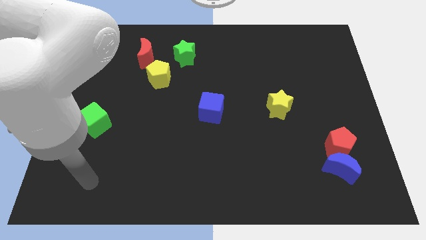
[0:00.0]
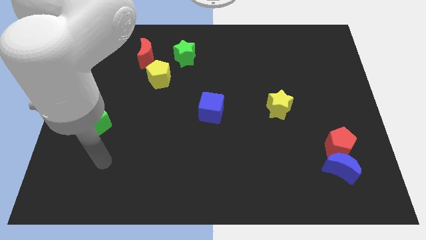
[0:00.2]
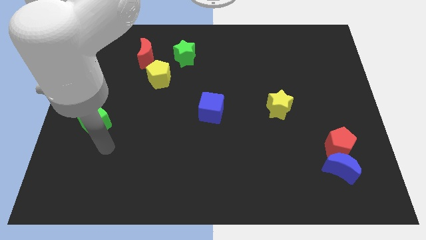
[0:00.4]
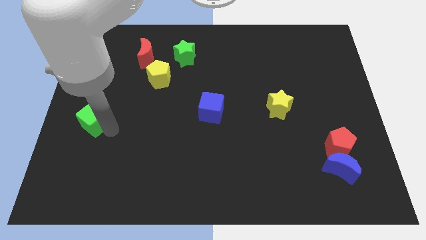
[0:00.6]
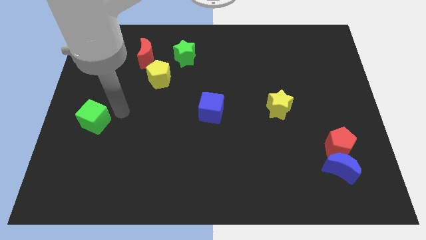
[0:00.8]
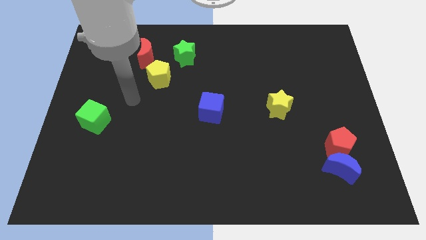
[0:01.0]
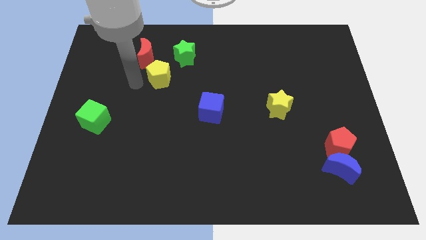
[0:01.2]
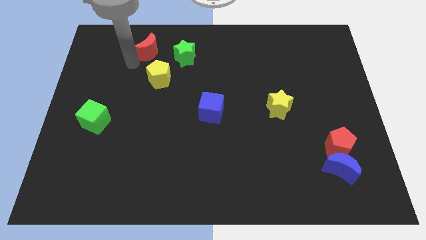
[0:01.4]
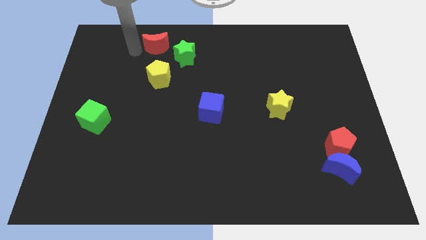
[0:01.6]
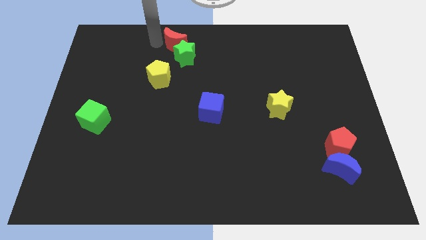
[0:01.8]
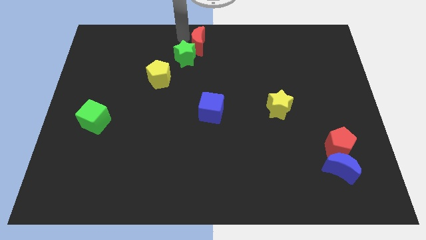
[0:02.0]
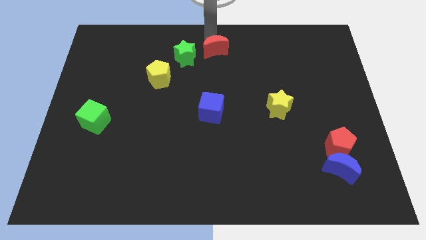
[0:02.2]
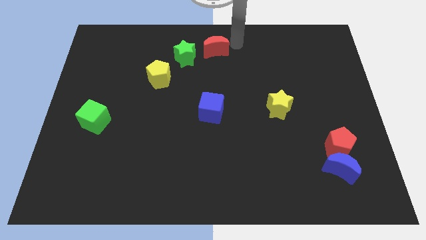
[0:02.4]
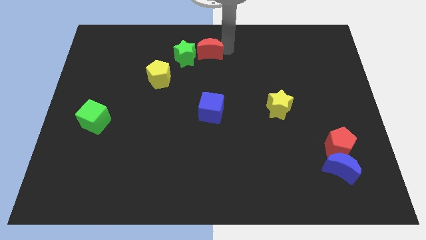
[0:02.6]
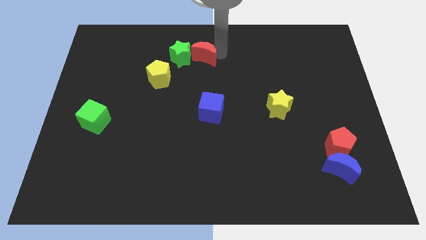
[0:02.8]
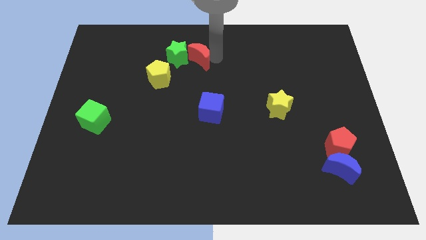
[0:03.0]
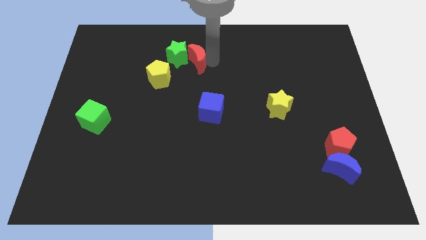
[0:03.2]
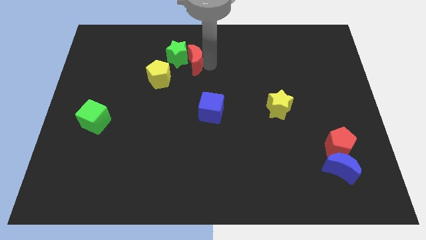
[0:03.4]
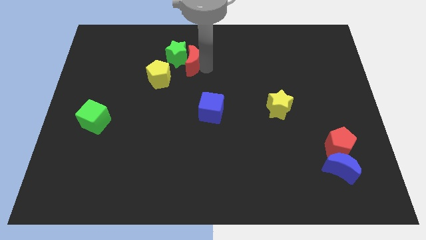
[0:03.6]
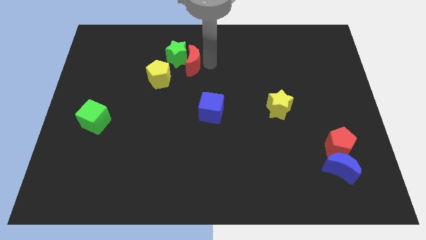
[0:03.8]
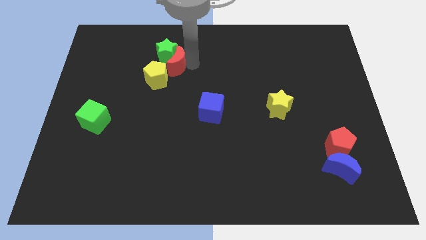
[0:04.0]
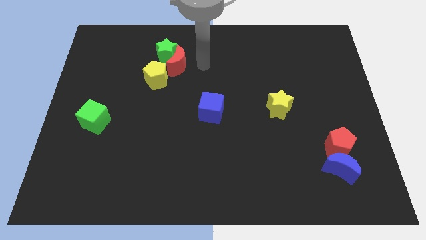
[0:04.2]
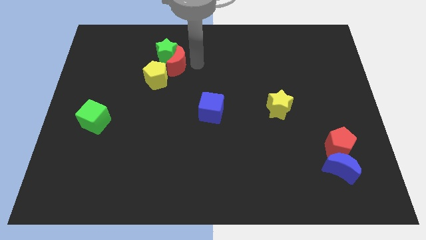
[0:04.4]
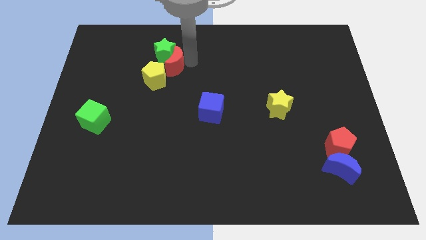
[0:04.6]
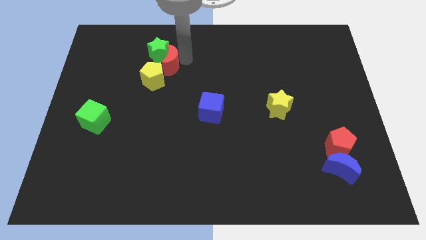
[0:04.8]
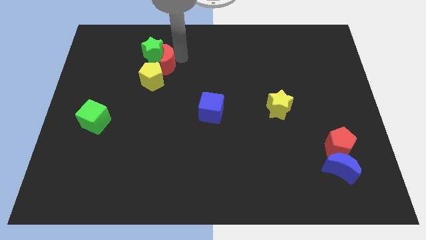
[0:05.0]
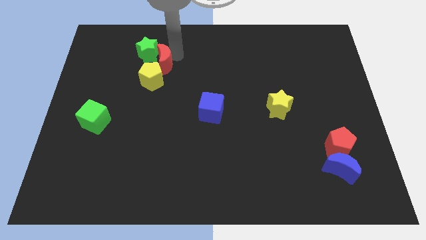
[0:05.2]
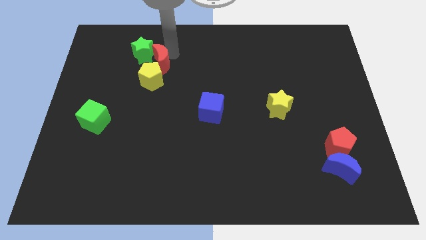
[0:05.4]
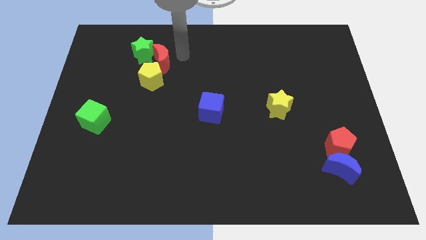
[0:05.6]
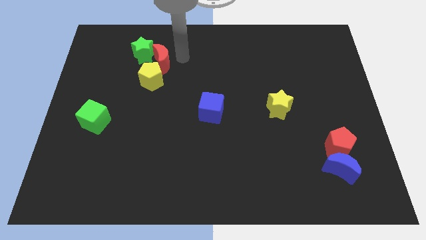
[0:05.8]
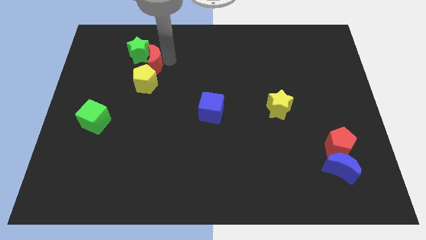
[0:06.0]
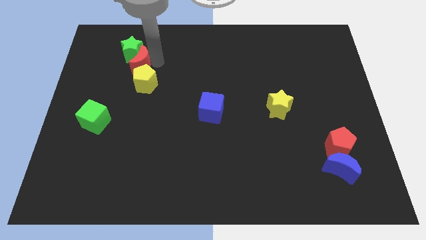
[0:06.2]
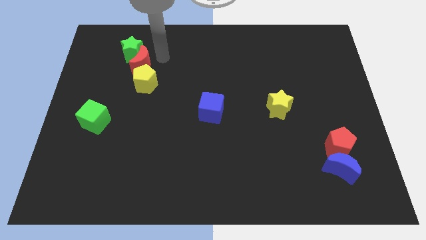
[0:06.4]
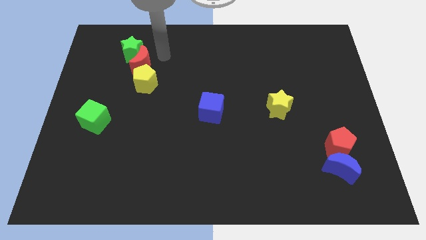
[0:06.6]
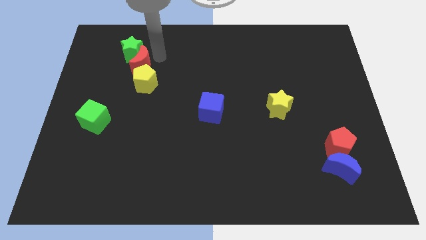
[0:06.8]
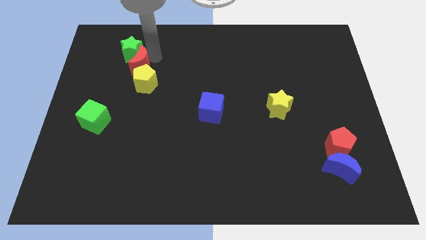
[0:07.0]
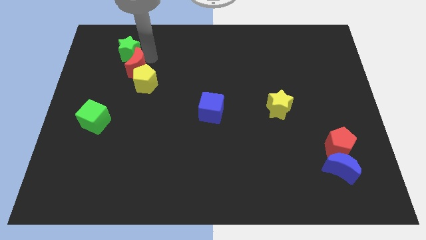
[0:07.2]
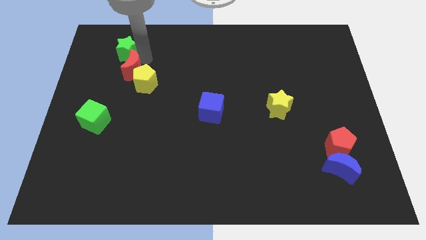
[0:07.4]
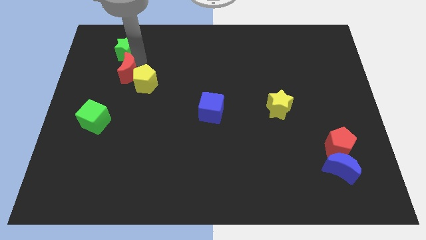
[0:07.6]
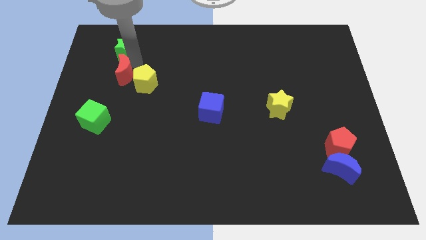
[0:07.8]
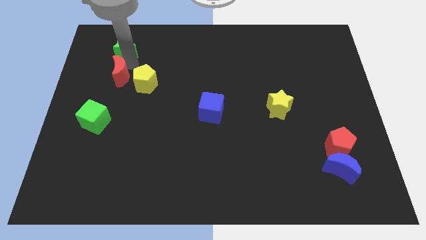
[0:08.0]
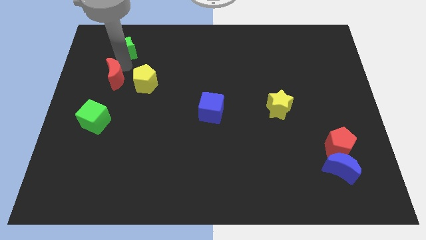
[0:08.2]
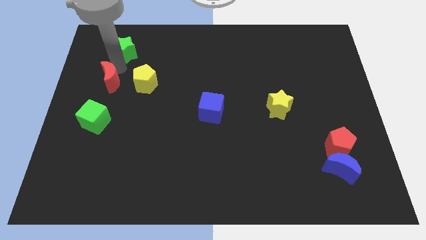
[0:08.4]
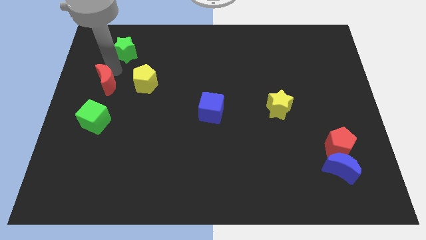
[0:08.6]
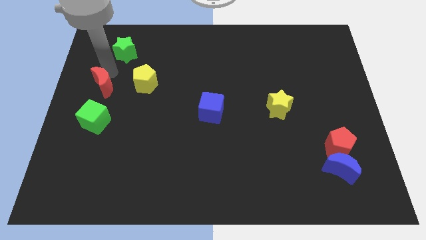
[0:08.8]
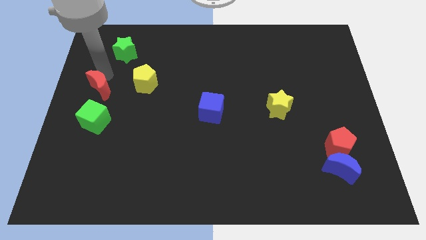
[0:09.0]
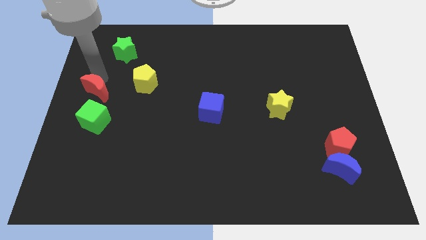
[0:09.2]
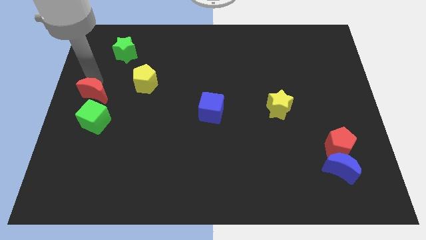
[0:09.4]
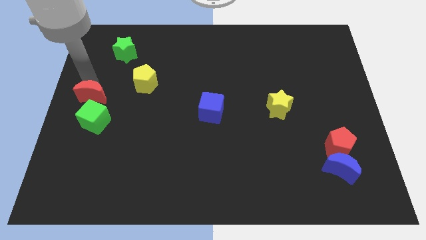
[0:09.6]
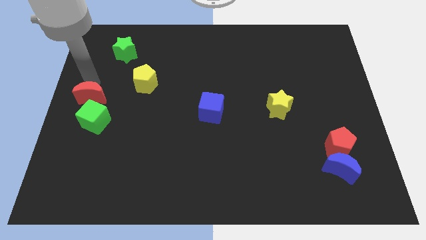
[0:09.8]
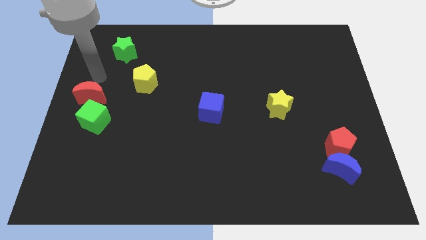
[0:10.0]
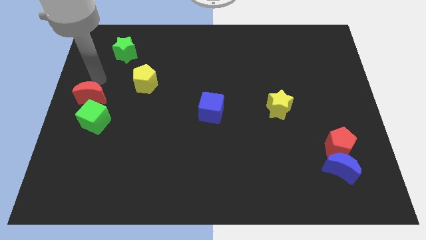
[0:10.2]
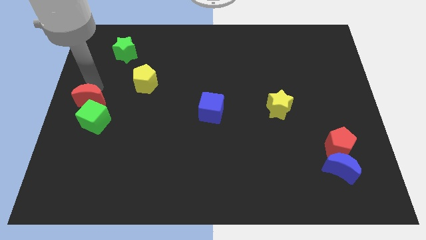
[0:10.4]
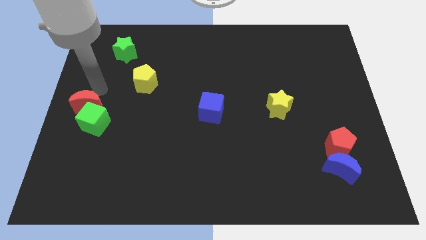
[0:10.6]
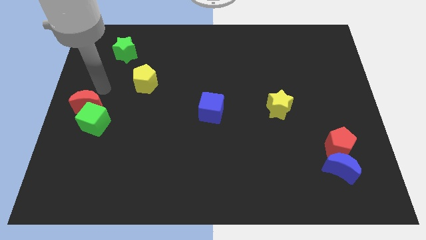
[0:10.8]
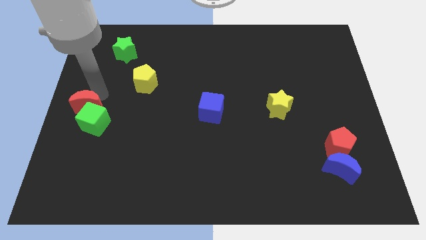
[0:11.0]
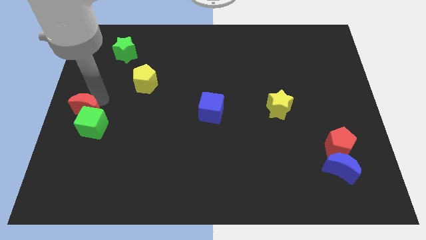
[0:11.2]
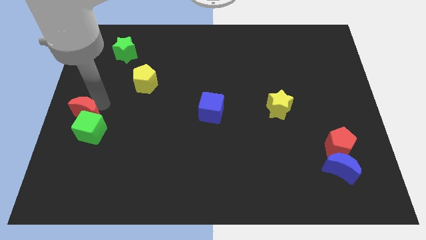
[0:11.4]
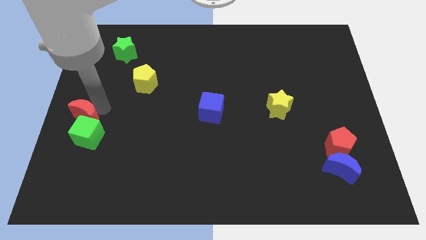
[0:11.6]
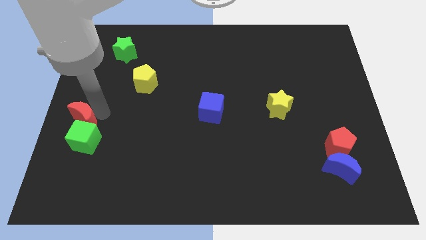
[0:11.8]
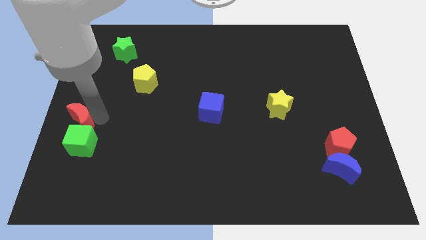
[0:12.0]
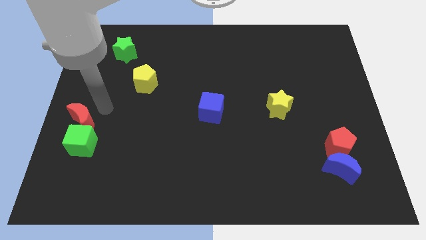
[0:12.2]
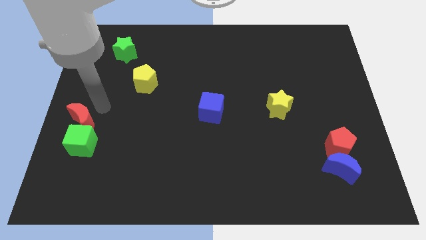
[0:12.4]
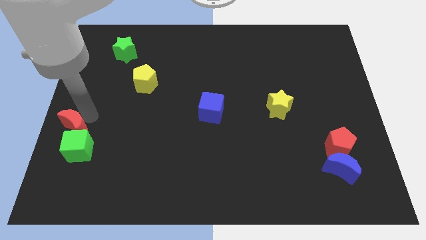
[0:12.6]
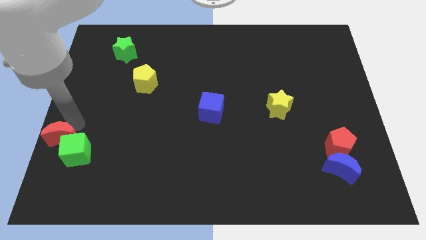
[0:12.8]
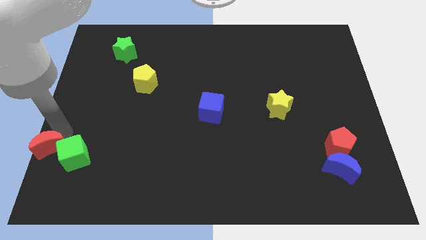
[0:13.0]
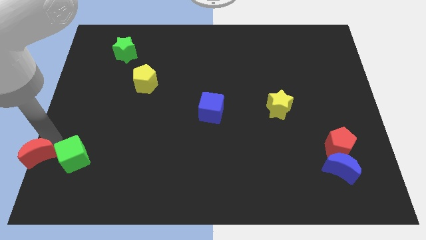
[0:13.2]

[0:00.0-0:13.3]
put the red moon to the bottom left corner
